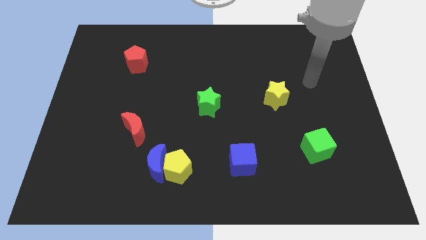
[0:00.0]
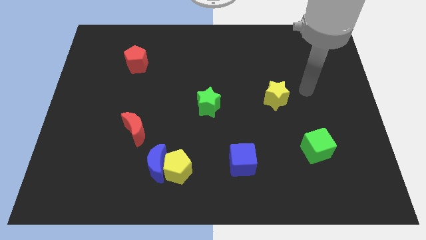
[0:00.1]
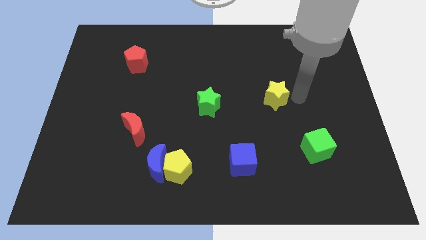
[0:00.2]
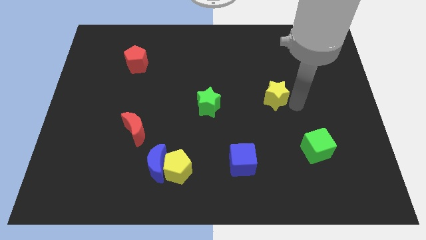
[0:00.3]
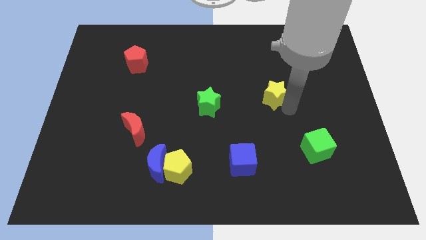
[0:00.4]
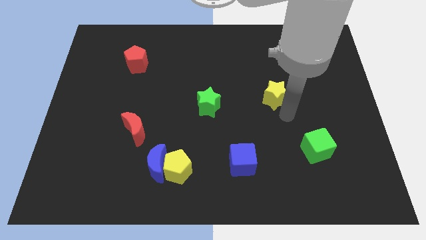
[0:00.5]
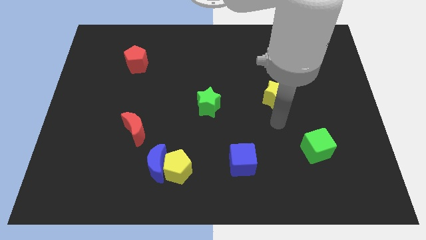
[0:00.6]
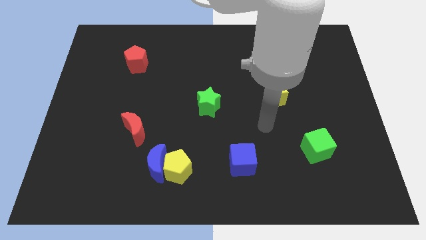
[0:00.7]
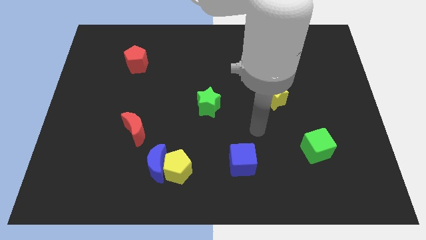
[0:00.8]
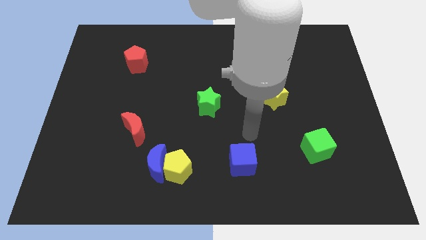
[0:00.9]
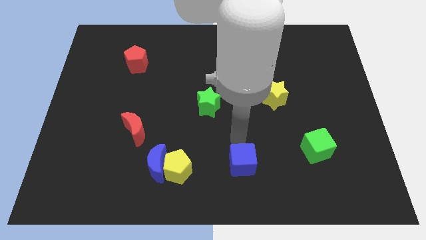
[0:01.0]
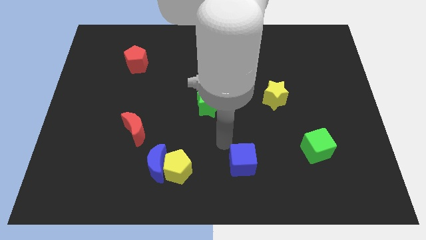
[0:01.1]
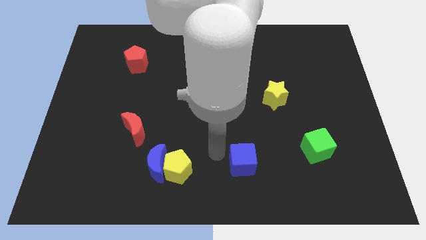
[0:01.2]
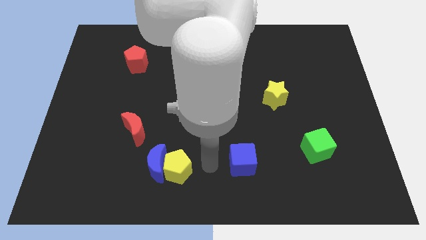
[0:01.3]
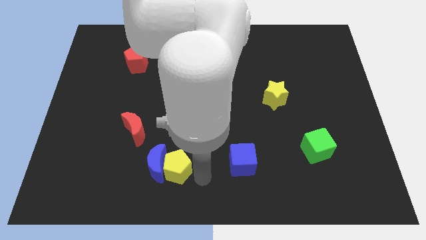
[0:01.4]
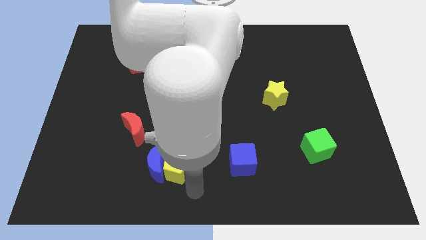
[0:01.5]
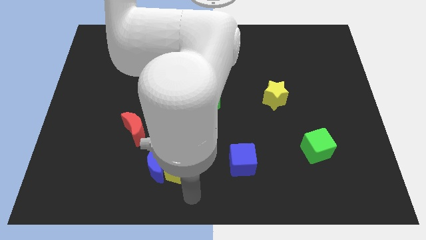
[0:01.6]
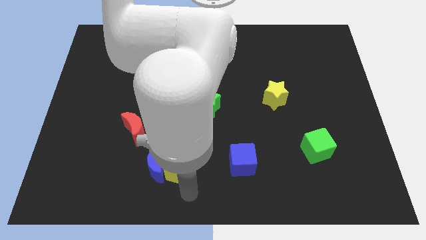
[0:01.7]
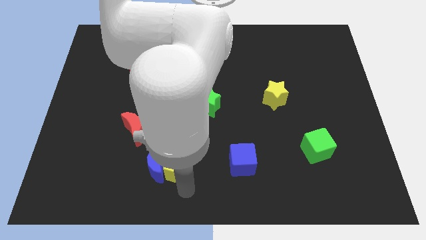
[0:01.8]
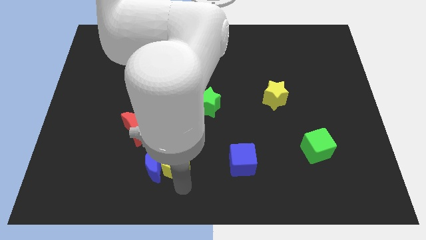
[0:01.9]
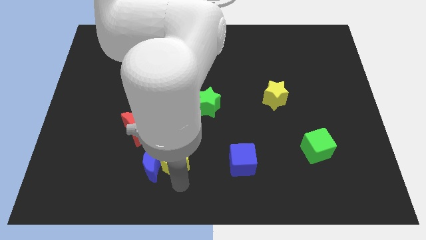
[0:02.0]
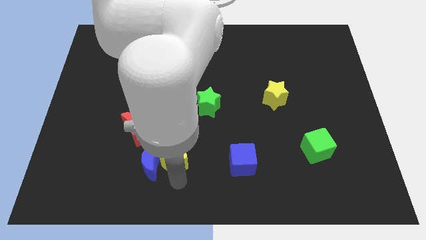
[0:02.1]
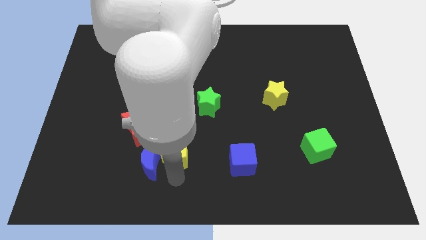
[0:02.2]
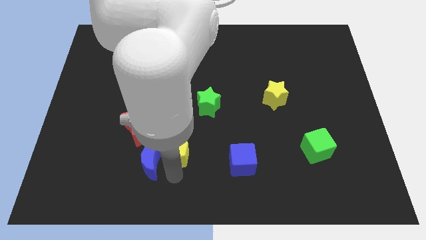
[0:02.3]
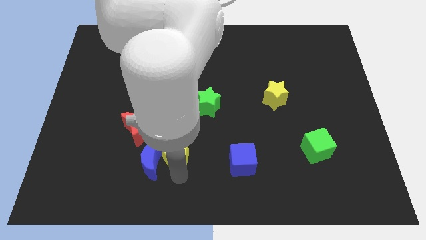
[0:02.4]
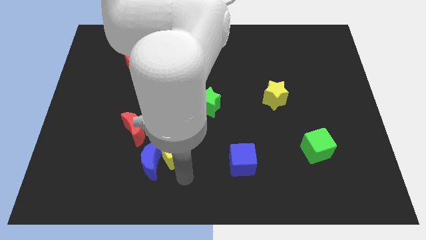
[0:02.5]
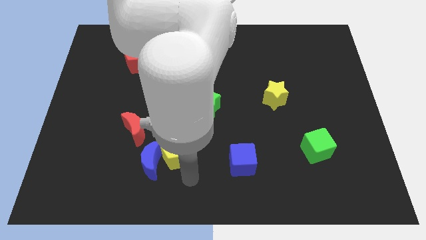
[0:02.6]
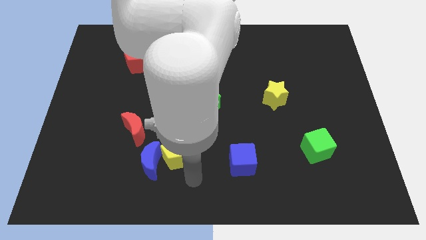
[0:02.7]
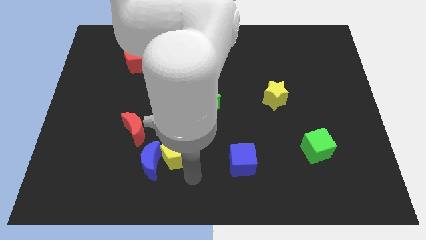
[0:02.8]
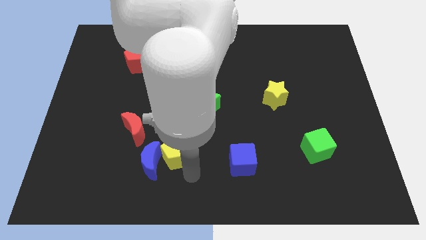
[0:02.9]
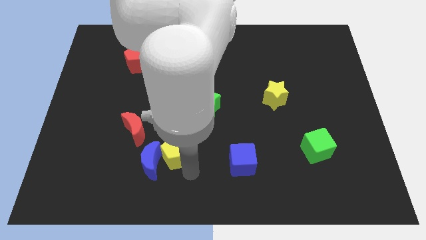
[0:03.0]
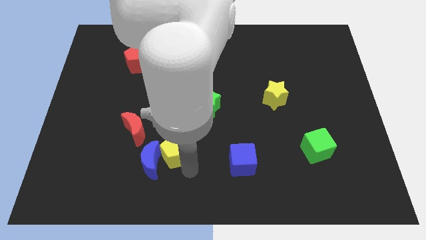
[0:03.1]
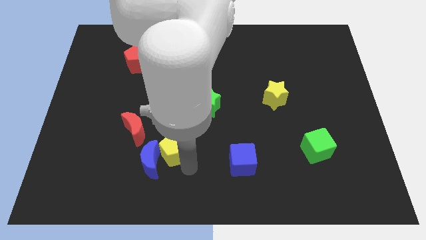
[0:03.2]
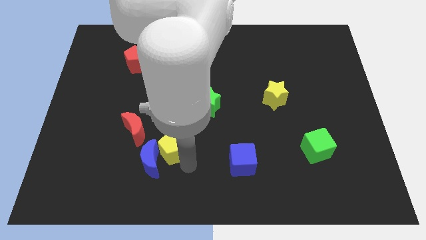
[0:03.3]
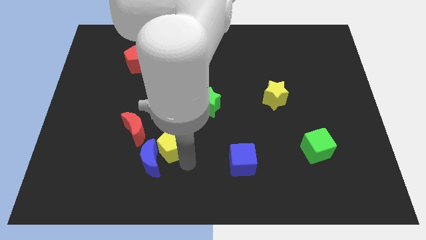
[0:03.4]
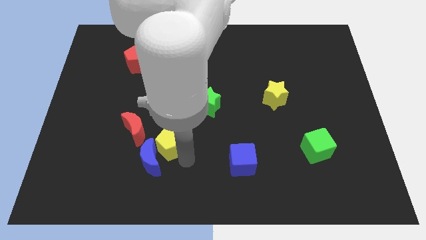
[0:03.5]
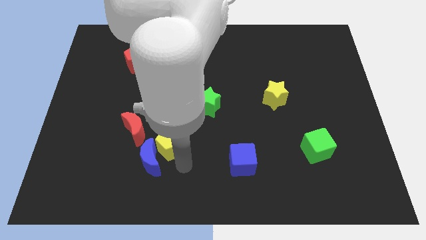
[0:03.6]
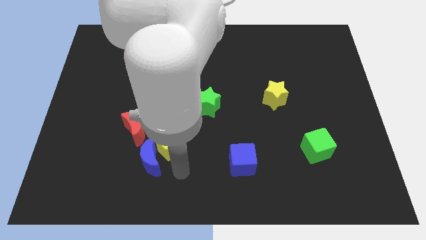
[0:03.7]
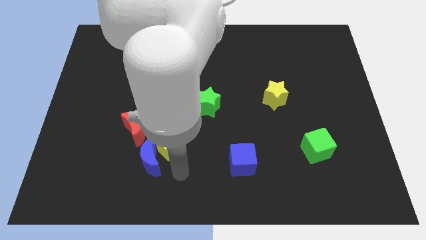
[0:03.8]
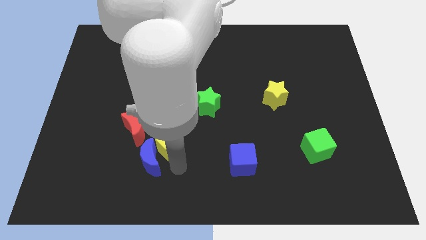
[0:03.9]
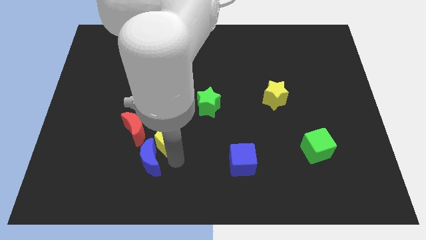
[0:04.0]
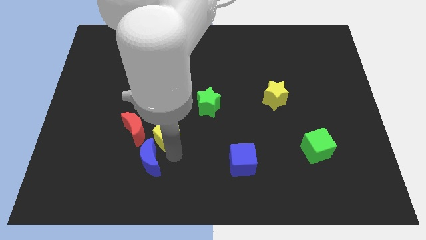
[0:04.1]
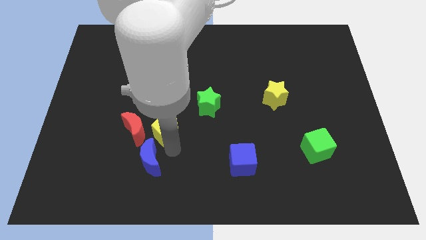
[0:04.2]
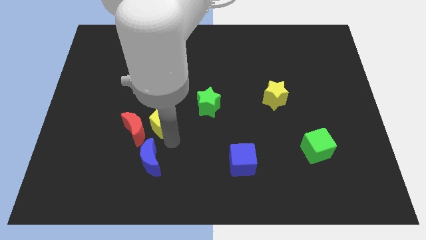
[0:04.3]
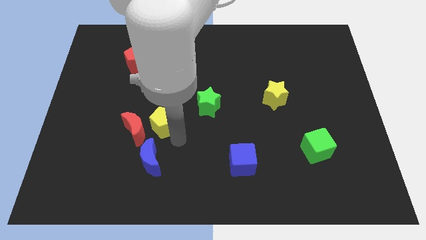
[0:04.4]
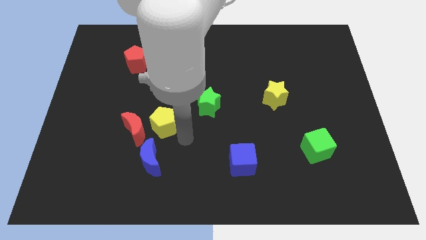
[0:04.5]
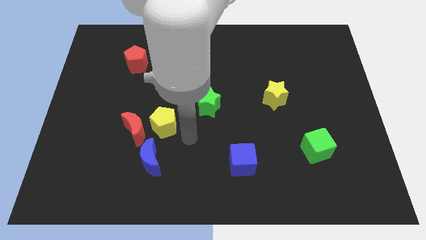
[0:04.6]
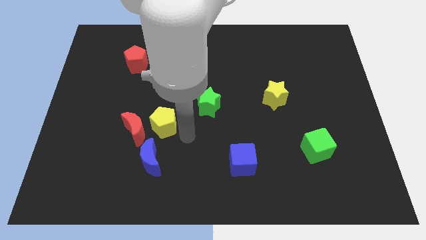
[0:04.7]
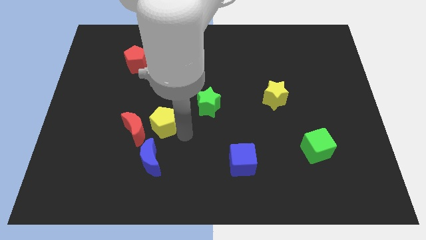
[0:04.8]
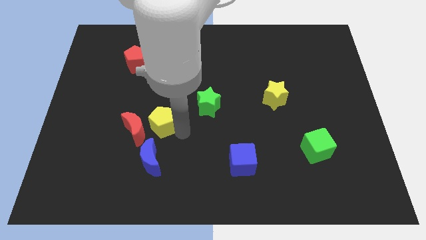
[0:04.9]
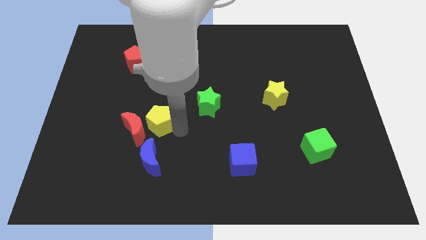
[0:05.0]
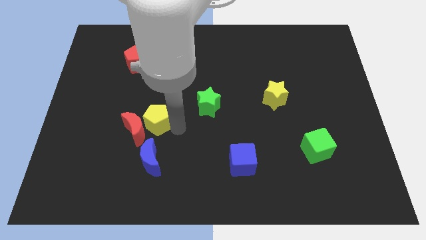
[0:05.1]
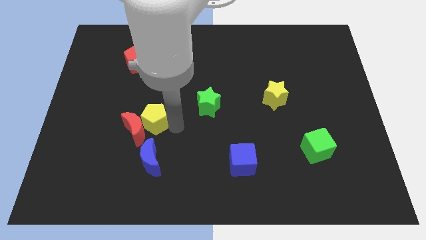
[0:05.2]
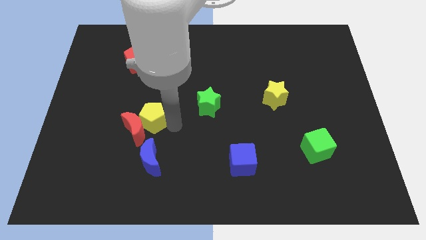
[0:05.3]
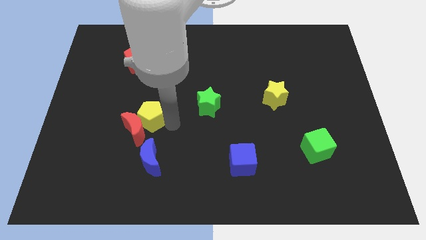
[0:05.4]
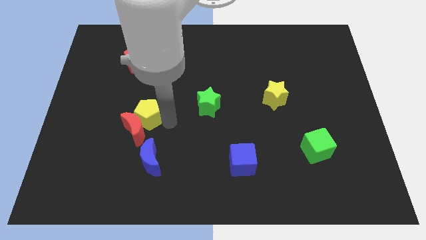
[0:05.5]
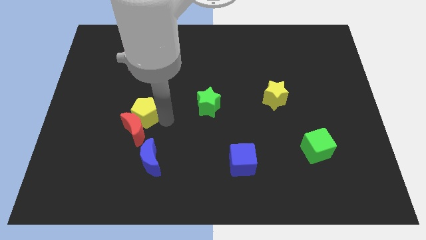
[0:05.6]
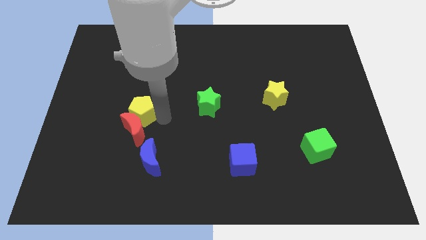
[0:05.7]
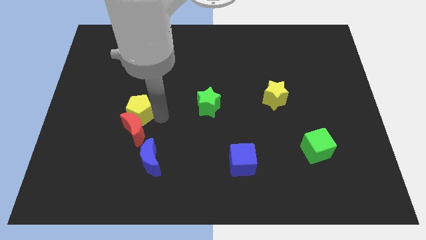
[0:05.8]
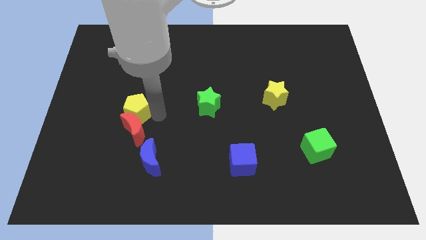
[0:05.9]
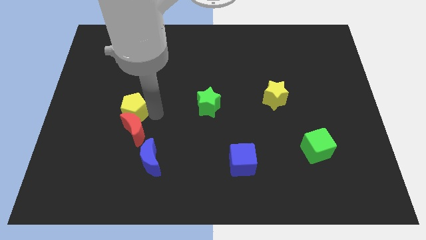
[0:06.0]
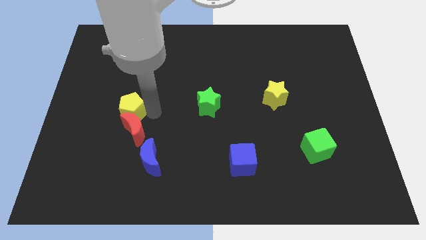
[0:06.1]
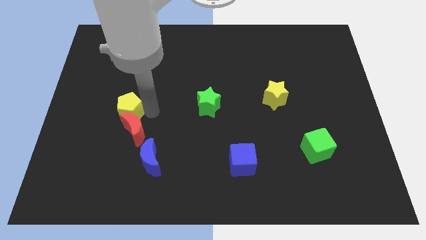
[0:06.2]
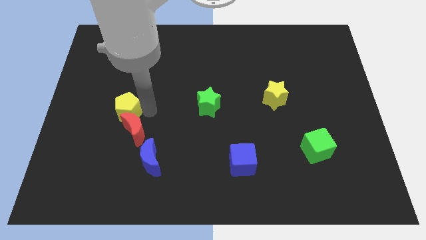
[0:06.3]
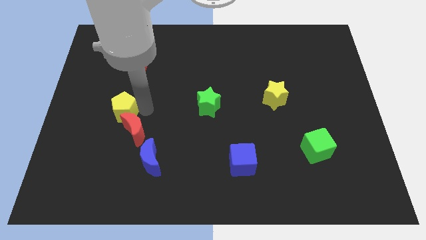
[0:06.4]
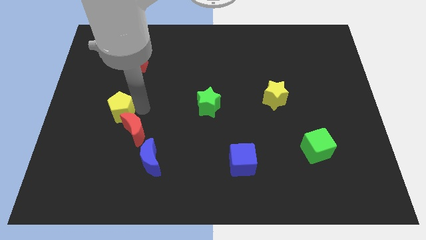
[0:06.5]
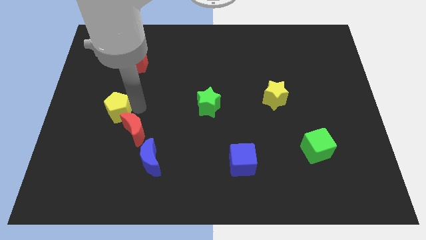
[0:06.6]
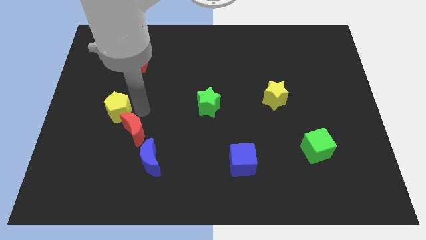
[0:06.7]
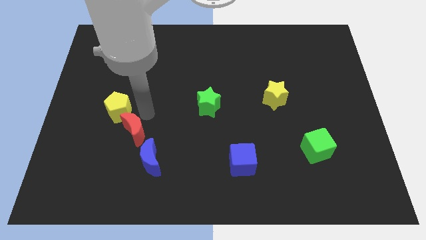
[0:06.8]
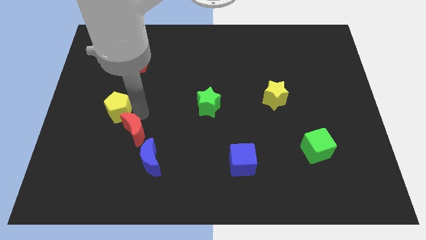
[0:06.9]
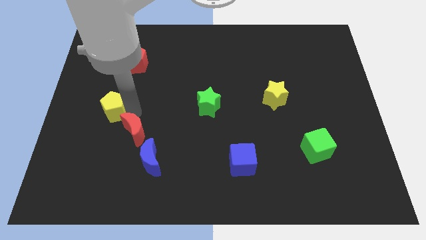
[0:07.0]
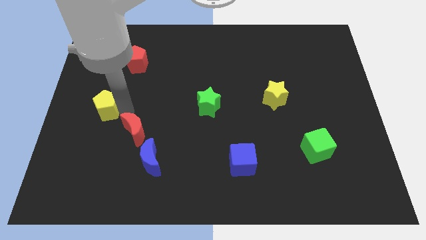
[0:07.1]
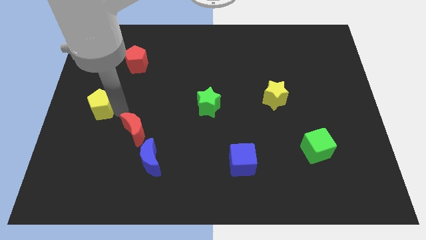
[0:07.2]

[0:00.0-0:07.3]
put the yellow pentagon to the center left
